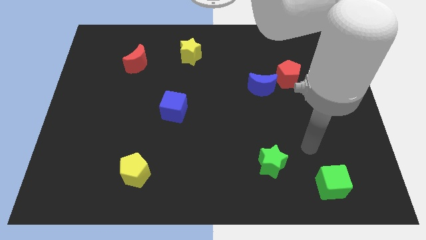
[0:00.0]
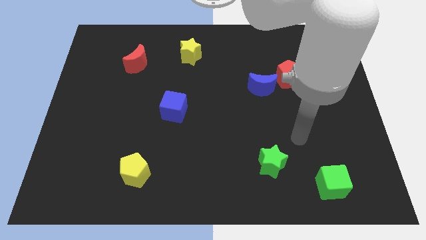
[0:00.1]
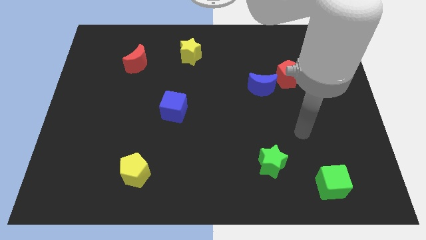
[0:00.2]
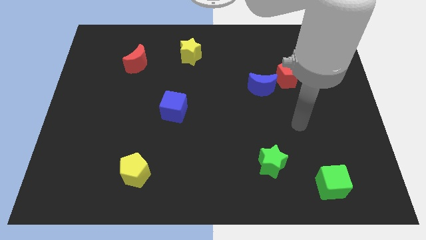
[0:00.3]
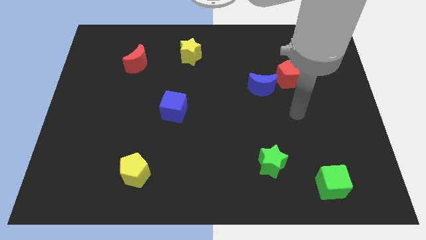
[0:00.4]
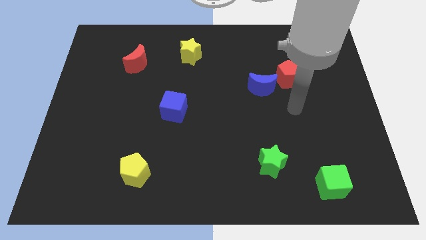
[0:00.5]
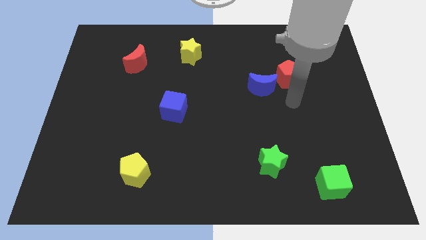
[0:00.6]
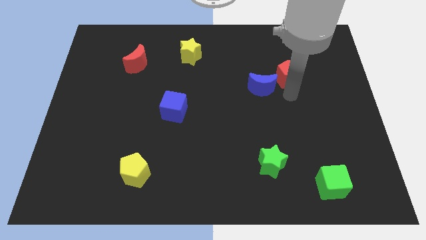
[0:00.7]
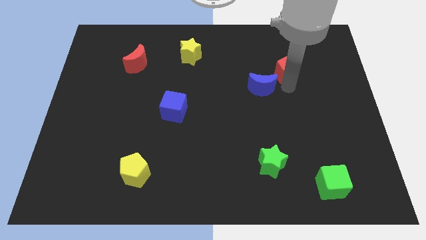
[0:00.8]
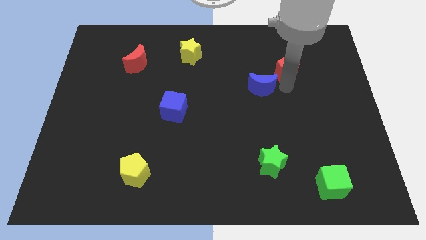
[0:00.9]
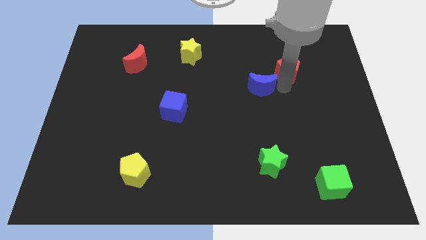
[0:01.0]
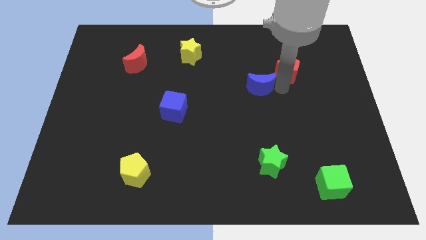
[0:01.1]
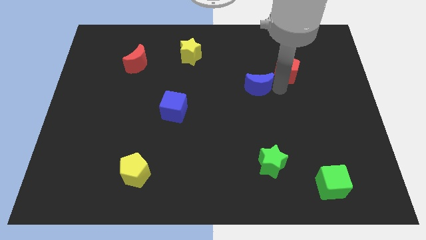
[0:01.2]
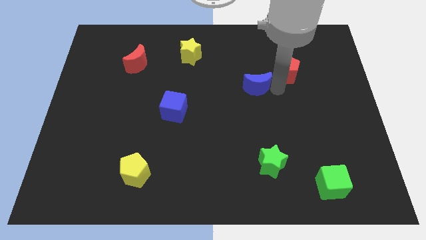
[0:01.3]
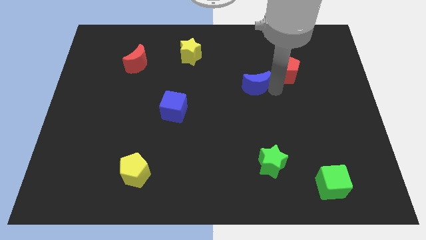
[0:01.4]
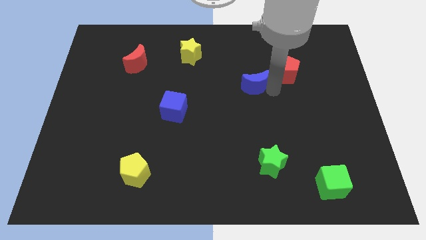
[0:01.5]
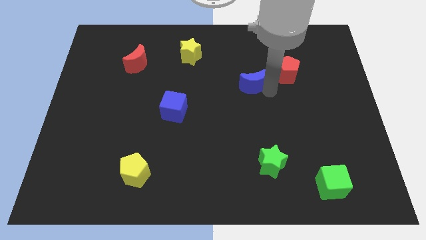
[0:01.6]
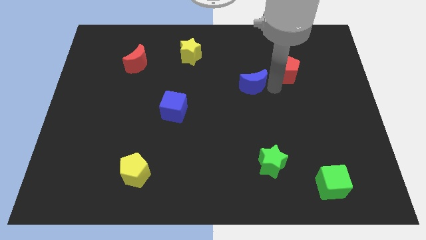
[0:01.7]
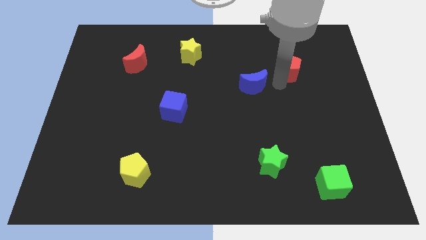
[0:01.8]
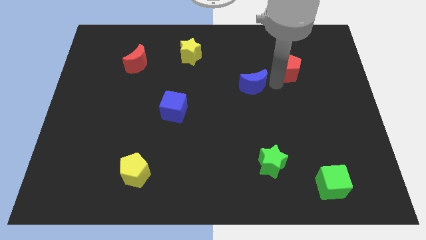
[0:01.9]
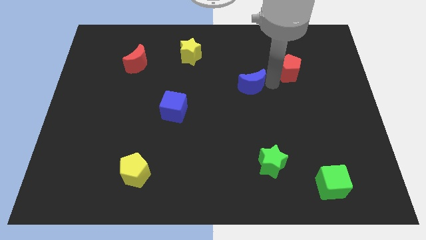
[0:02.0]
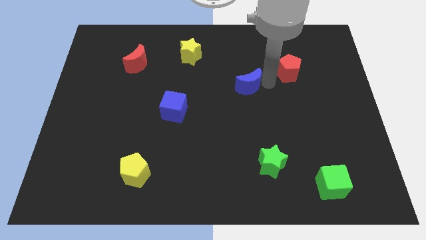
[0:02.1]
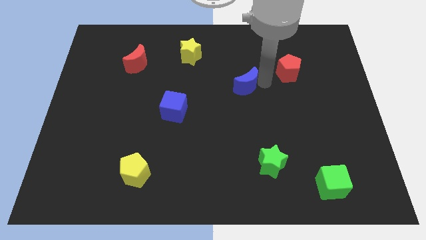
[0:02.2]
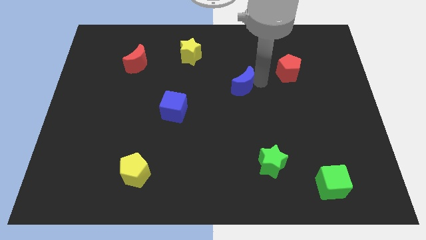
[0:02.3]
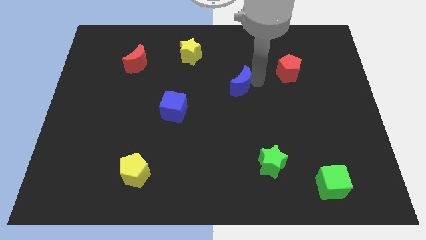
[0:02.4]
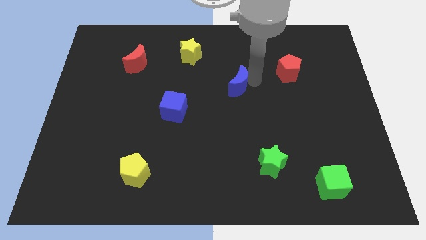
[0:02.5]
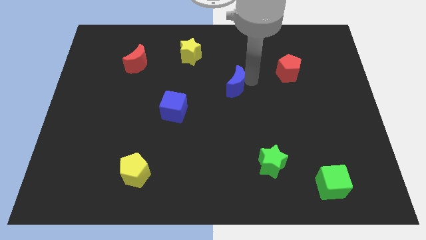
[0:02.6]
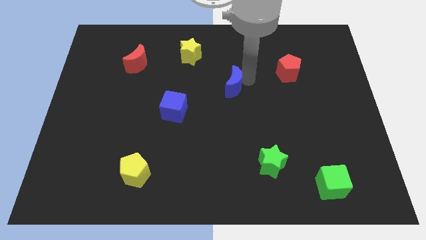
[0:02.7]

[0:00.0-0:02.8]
push the blue moon to the left somewhat

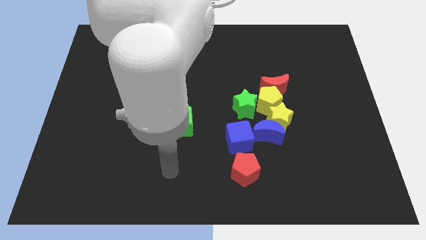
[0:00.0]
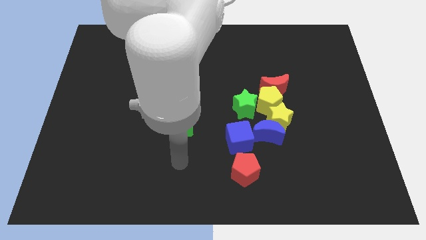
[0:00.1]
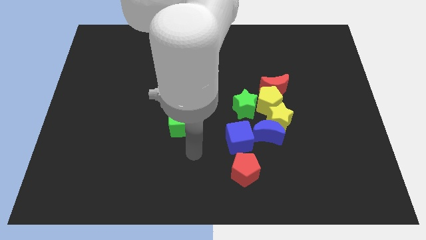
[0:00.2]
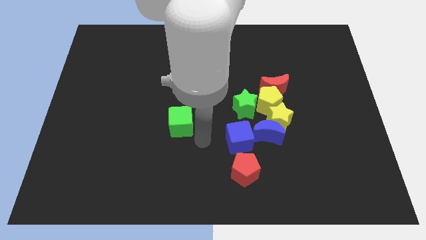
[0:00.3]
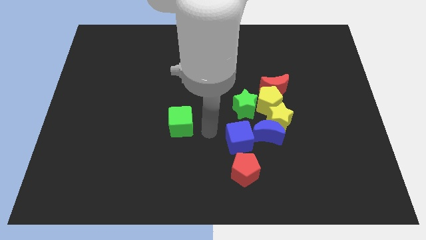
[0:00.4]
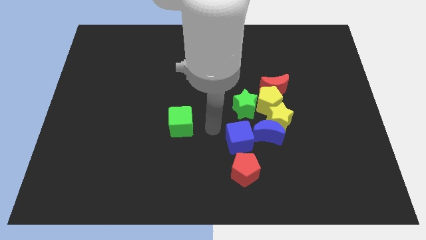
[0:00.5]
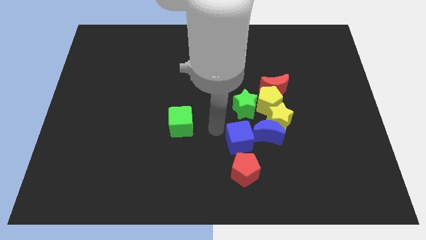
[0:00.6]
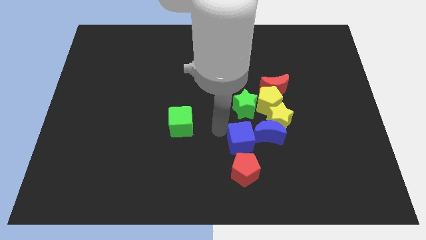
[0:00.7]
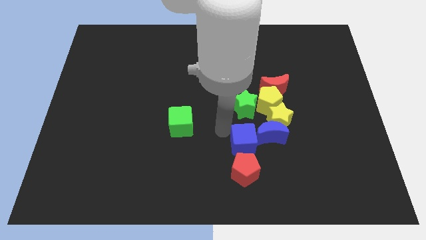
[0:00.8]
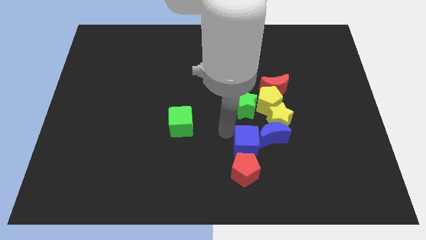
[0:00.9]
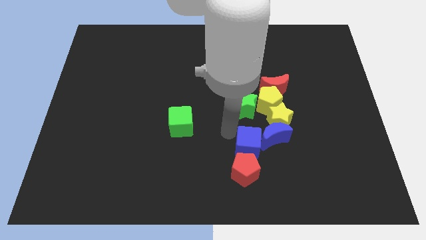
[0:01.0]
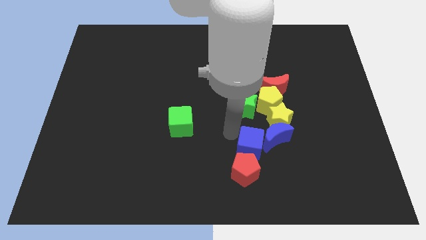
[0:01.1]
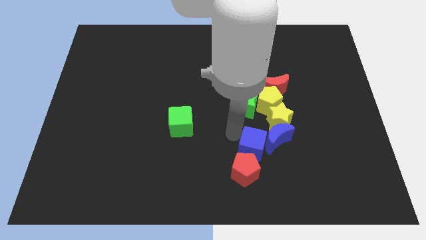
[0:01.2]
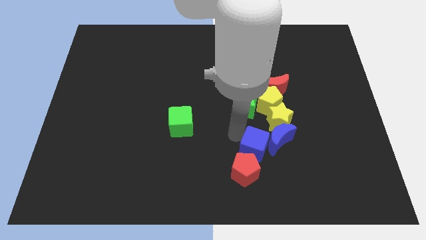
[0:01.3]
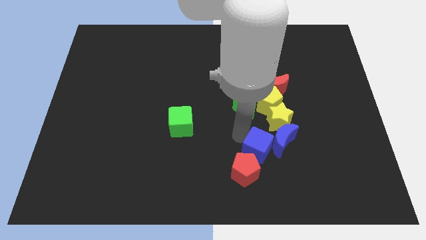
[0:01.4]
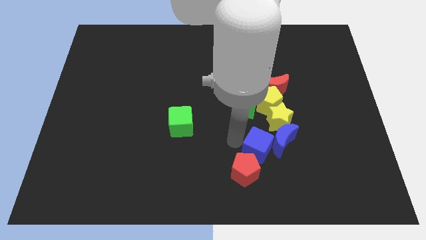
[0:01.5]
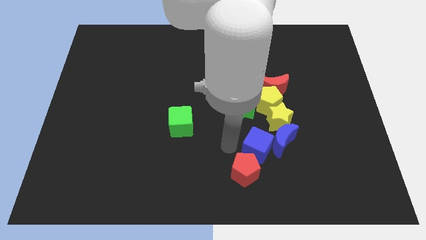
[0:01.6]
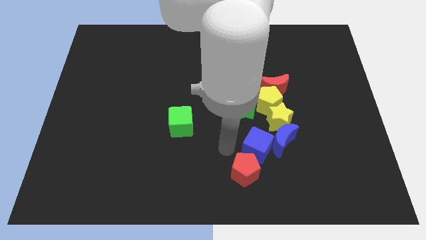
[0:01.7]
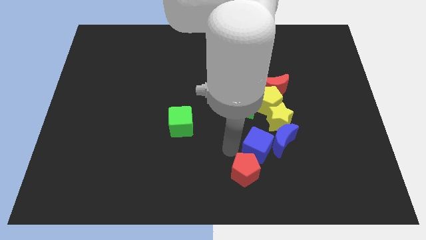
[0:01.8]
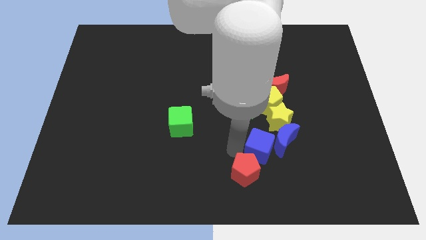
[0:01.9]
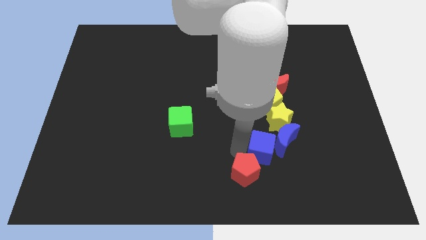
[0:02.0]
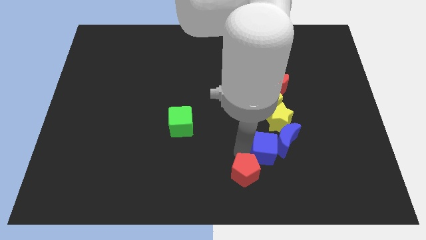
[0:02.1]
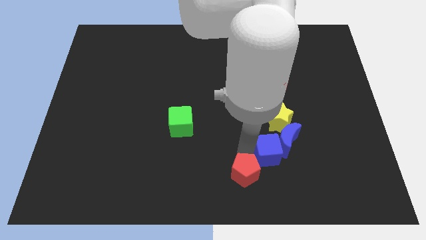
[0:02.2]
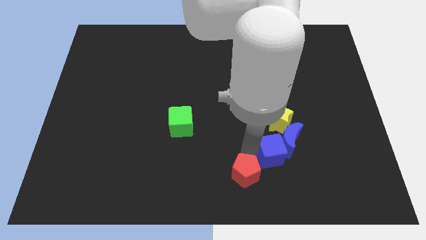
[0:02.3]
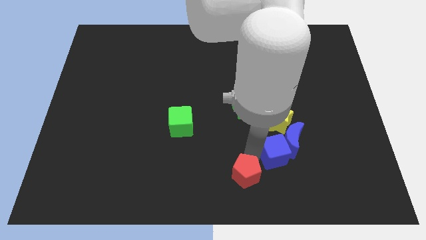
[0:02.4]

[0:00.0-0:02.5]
move the blue cube right somewhat

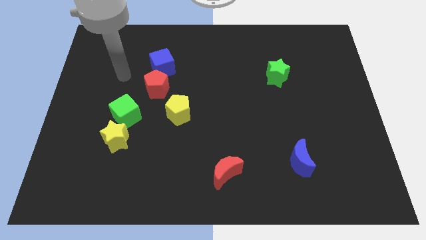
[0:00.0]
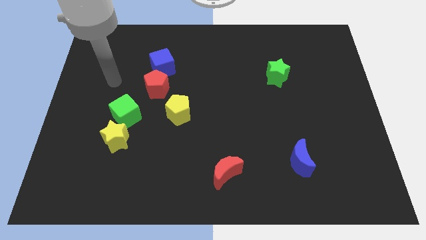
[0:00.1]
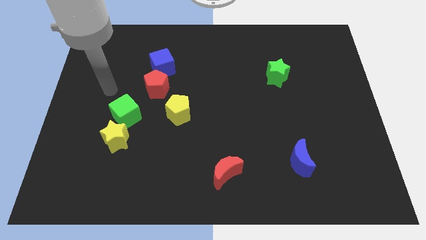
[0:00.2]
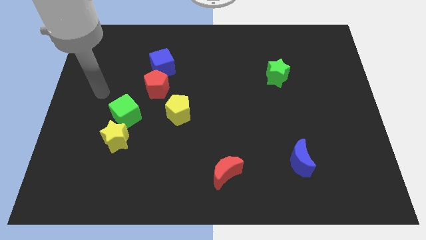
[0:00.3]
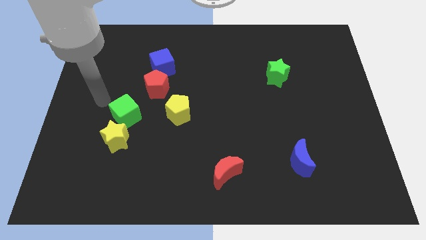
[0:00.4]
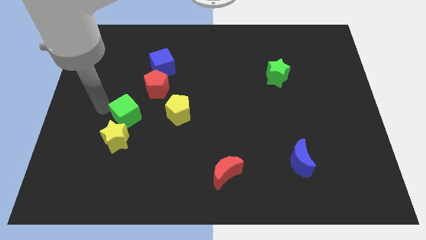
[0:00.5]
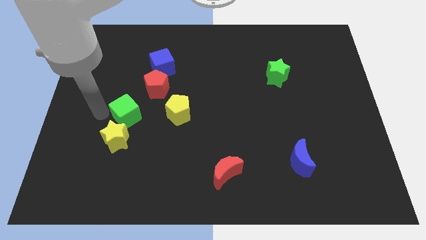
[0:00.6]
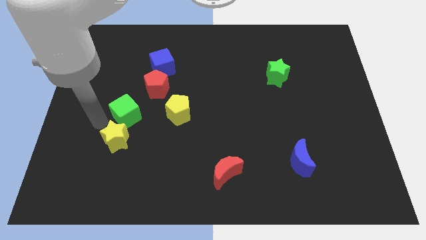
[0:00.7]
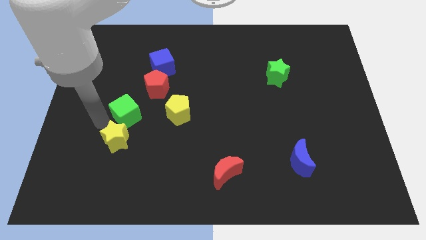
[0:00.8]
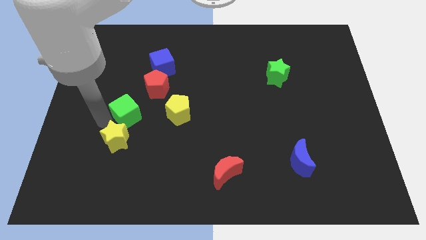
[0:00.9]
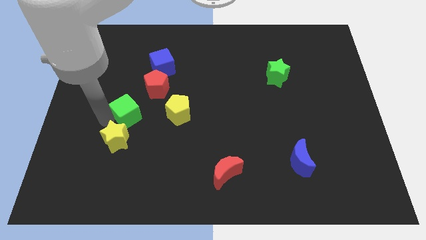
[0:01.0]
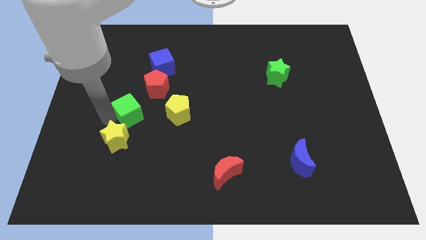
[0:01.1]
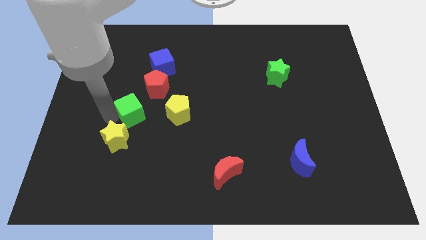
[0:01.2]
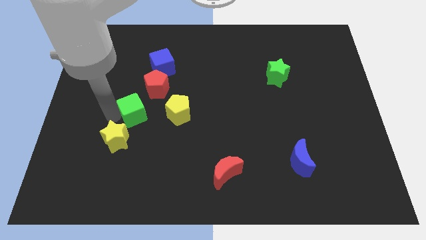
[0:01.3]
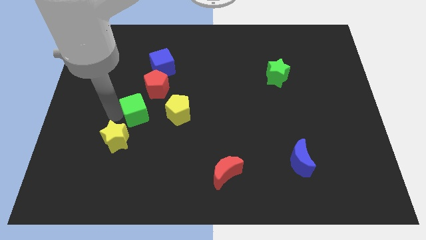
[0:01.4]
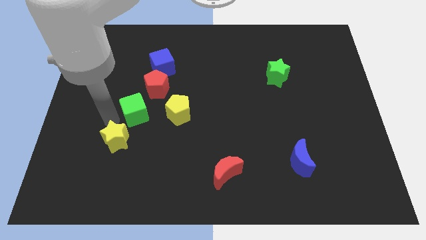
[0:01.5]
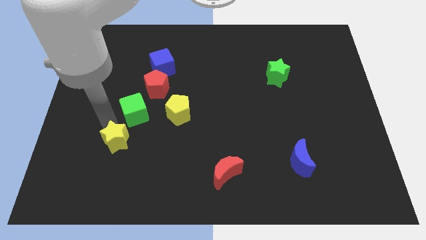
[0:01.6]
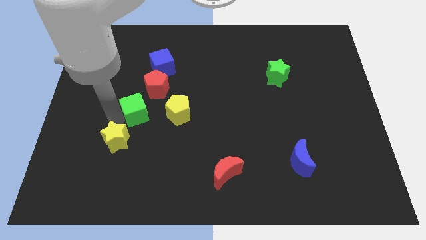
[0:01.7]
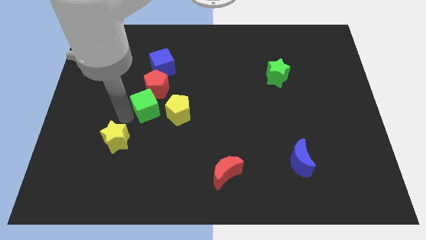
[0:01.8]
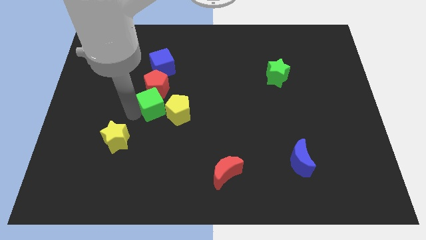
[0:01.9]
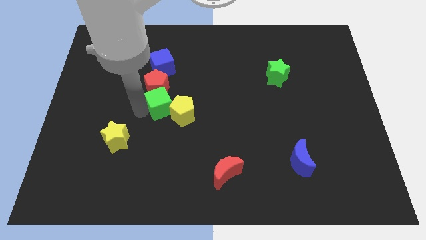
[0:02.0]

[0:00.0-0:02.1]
slightly move the green cube upwards and to the right diagonally

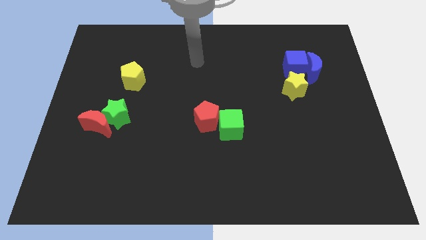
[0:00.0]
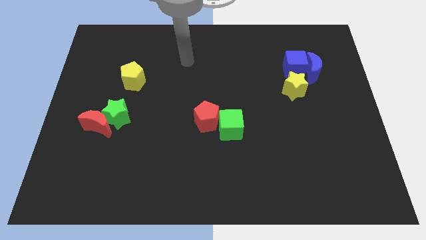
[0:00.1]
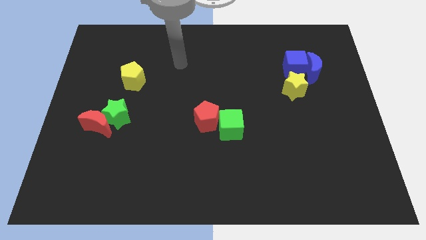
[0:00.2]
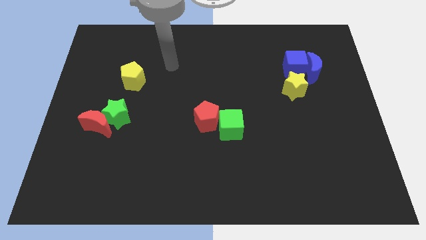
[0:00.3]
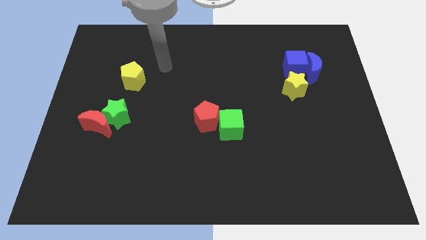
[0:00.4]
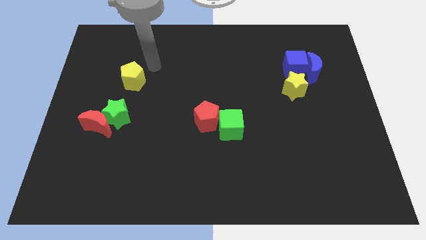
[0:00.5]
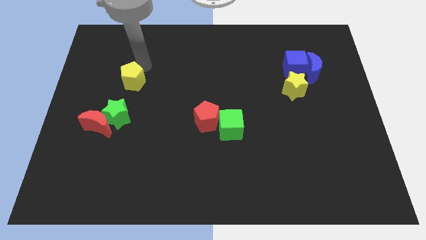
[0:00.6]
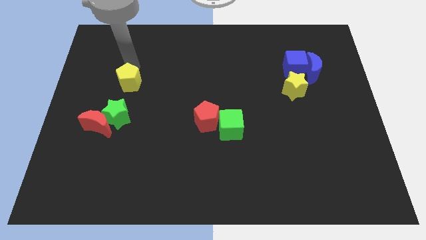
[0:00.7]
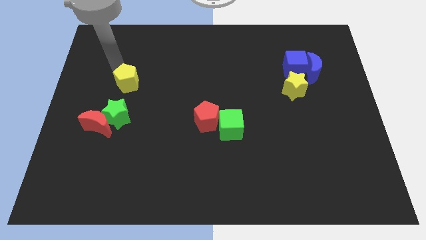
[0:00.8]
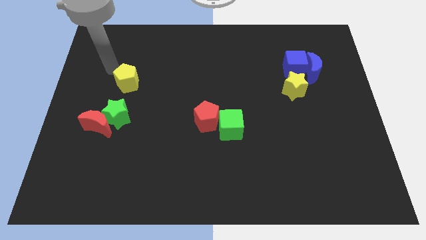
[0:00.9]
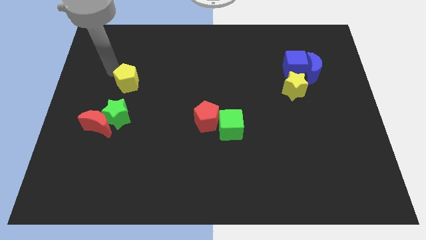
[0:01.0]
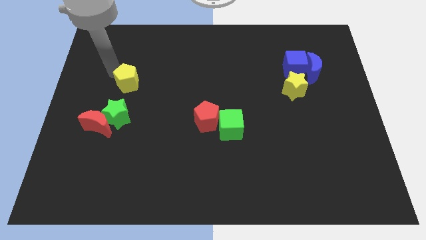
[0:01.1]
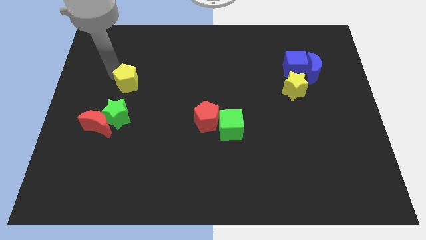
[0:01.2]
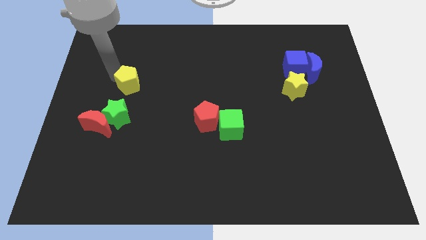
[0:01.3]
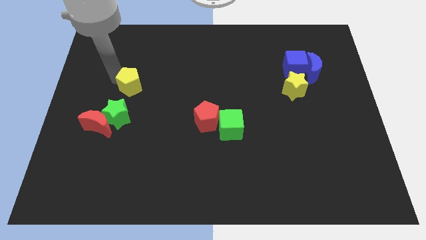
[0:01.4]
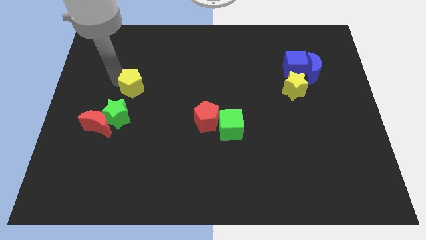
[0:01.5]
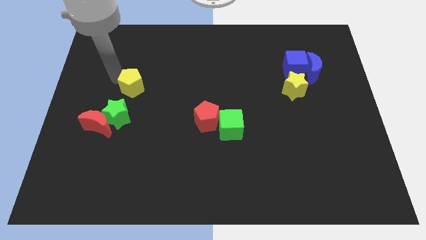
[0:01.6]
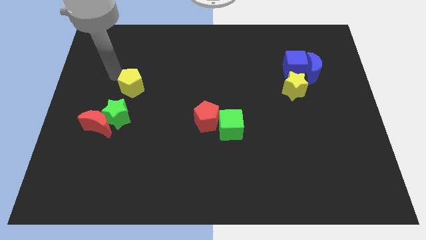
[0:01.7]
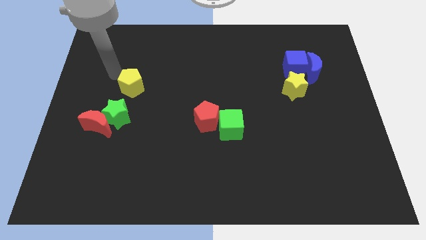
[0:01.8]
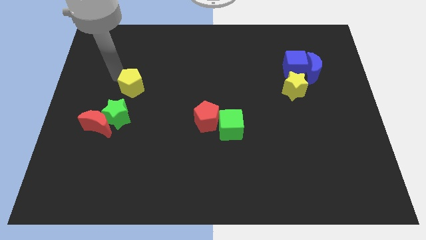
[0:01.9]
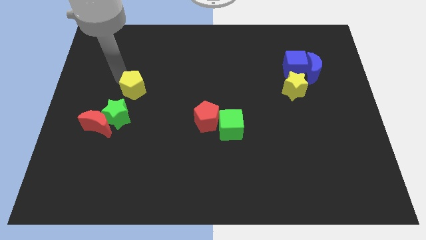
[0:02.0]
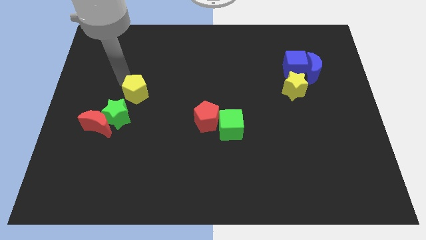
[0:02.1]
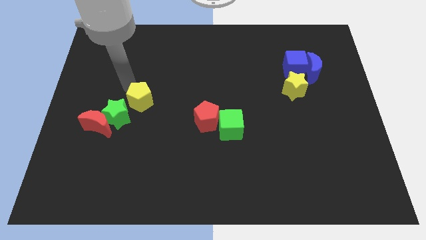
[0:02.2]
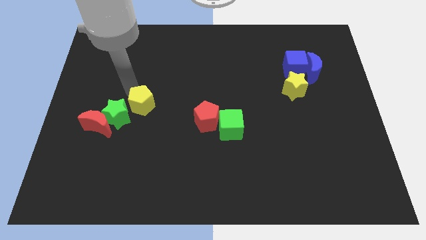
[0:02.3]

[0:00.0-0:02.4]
move the yellow pentagon down and right diagonally somewhat
